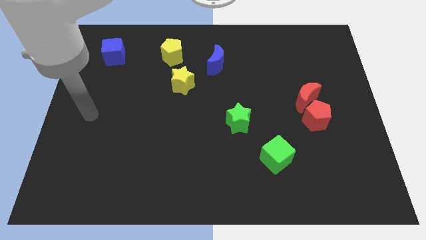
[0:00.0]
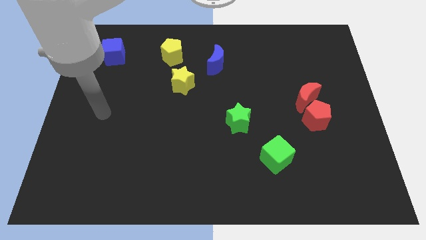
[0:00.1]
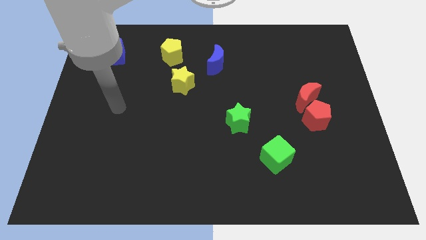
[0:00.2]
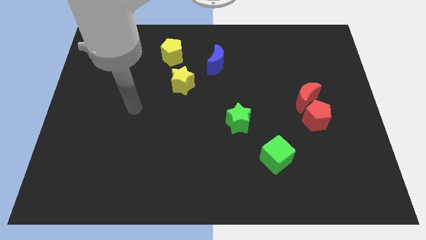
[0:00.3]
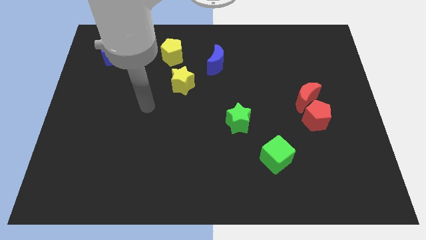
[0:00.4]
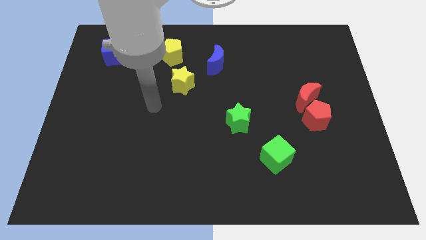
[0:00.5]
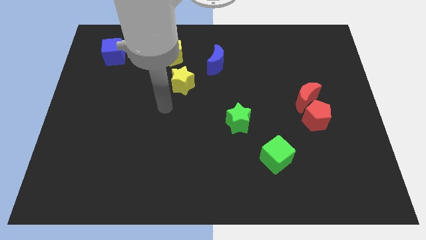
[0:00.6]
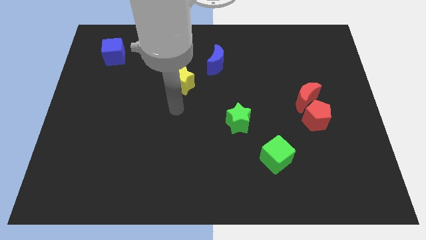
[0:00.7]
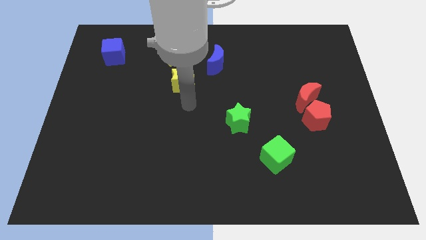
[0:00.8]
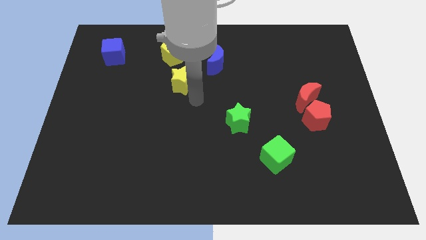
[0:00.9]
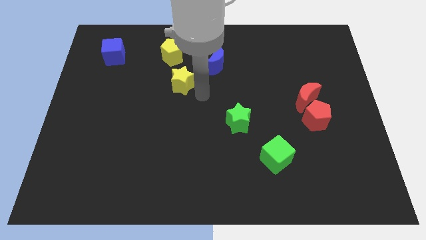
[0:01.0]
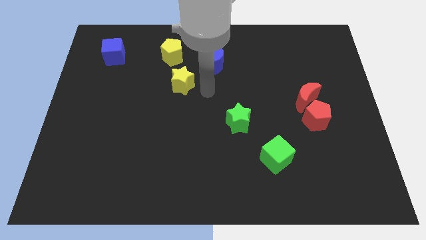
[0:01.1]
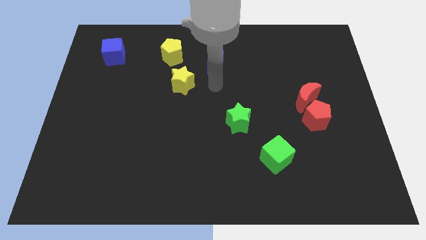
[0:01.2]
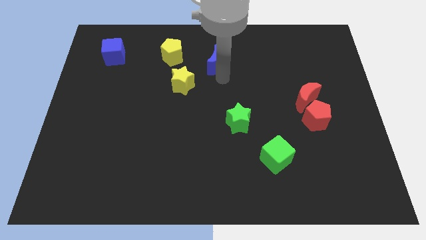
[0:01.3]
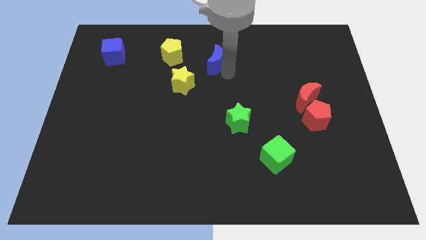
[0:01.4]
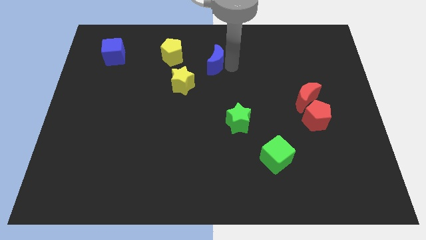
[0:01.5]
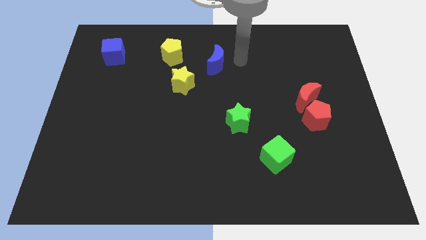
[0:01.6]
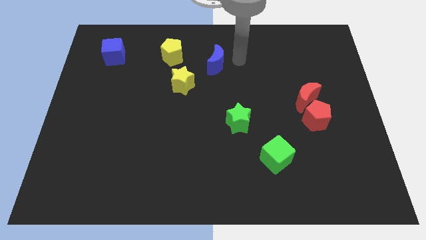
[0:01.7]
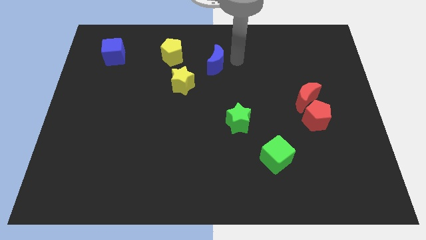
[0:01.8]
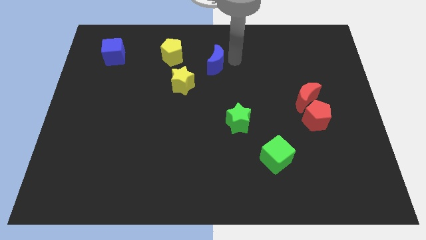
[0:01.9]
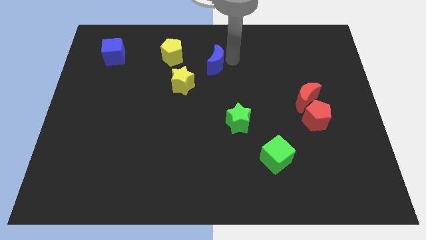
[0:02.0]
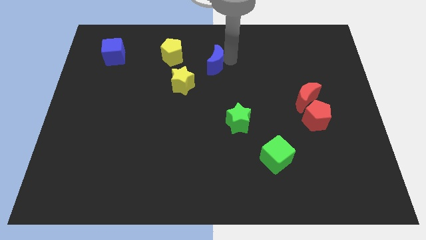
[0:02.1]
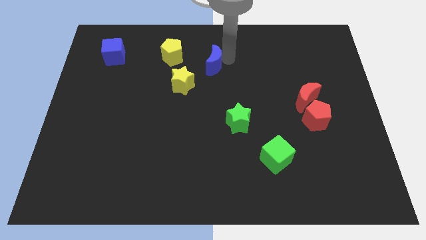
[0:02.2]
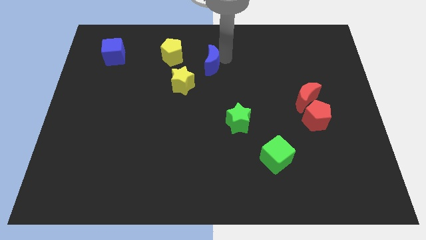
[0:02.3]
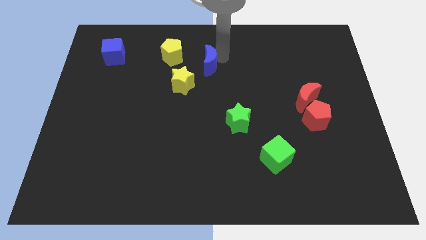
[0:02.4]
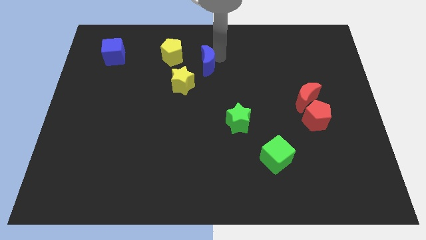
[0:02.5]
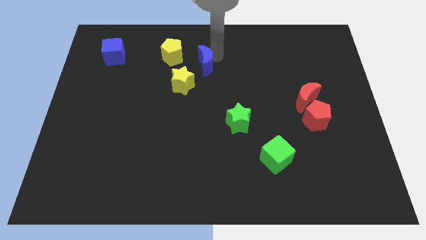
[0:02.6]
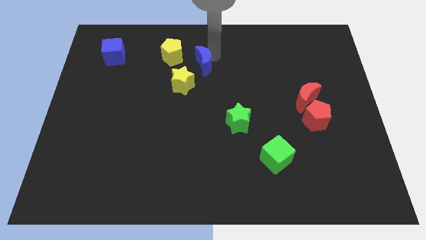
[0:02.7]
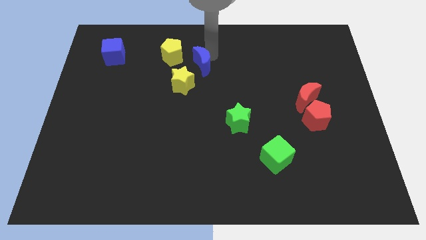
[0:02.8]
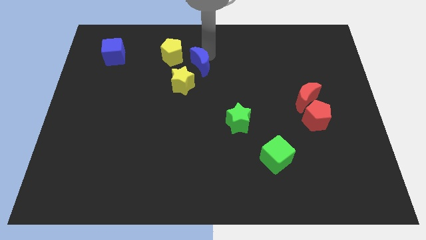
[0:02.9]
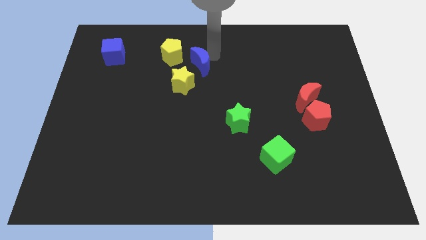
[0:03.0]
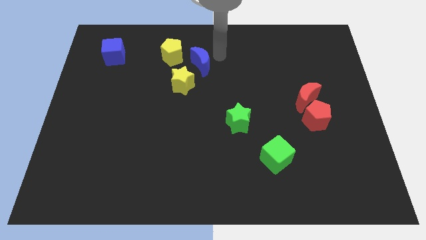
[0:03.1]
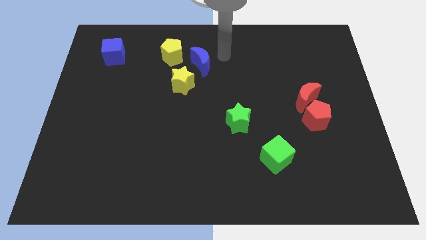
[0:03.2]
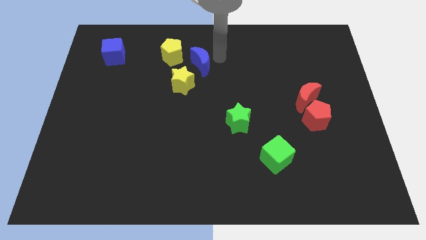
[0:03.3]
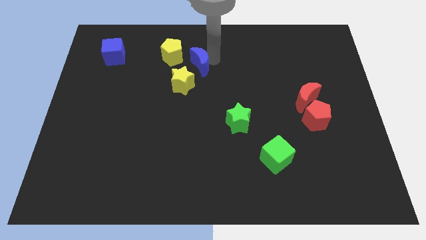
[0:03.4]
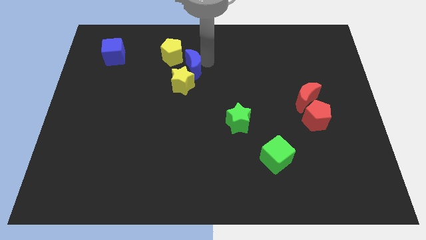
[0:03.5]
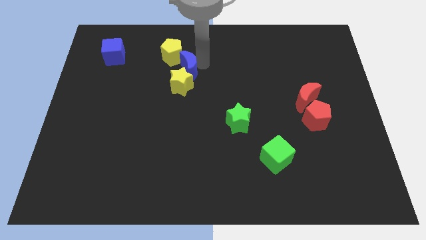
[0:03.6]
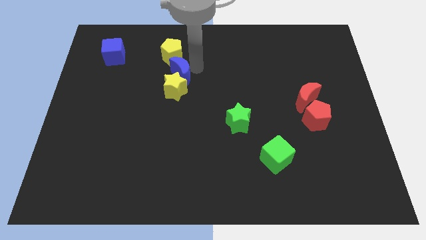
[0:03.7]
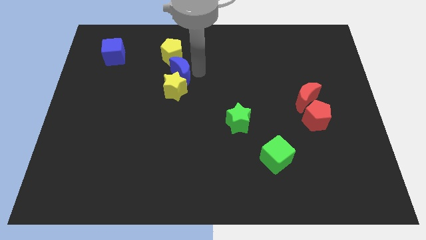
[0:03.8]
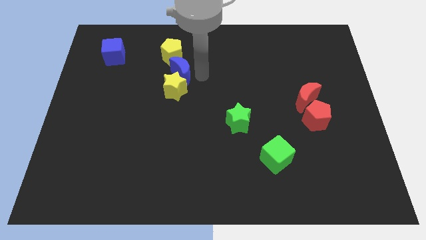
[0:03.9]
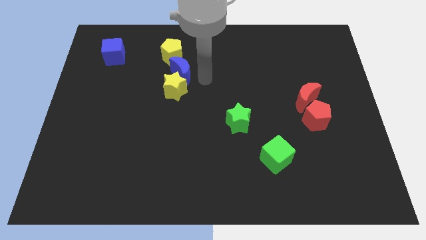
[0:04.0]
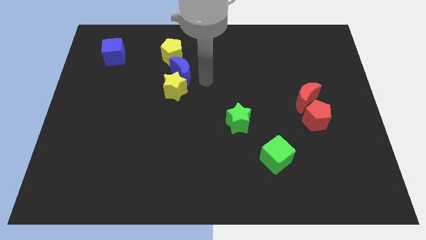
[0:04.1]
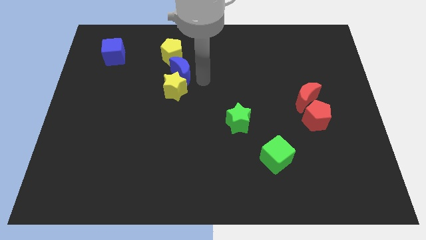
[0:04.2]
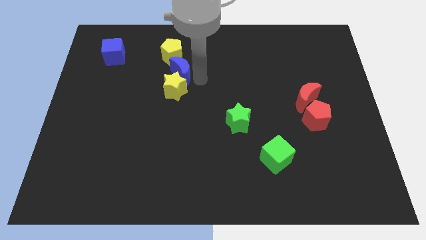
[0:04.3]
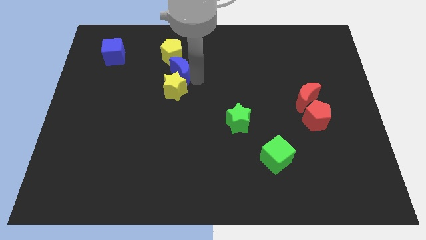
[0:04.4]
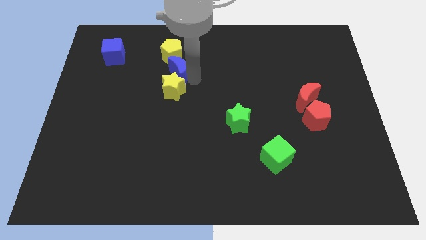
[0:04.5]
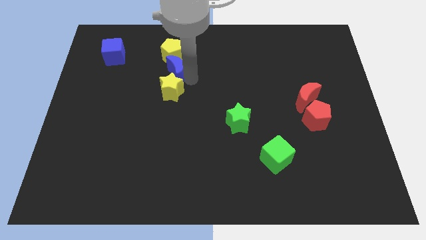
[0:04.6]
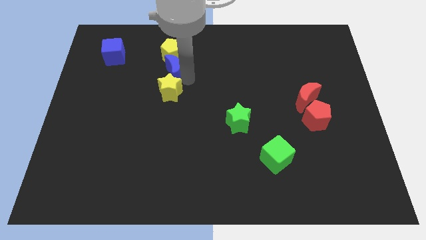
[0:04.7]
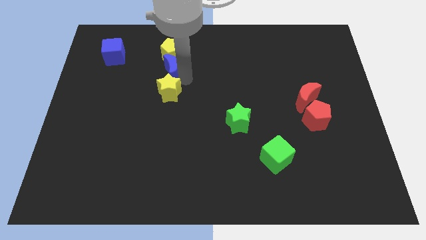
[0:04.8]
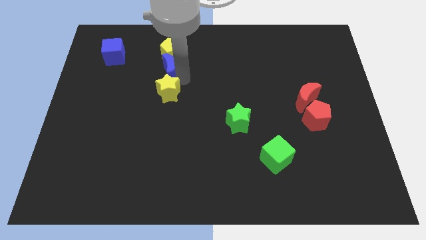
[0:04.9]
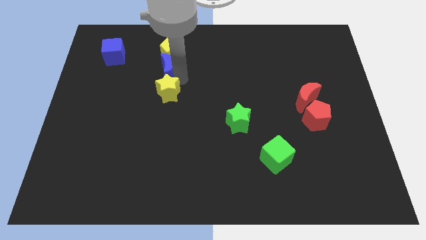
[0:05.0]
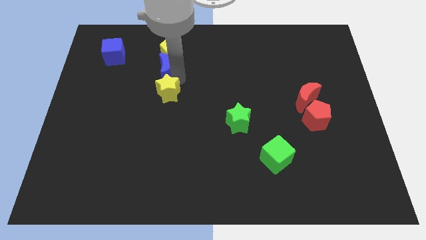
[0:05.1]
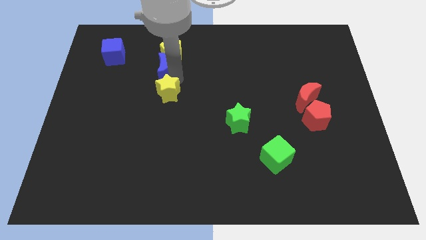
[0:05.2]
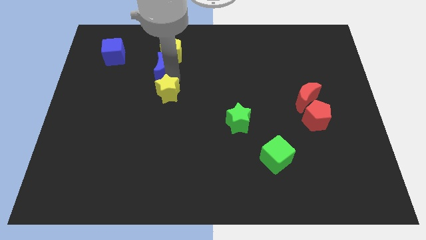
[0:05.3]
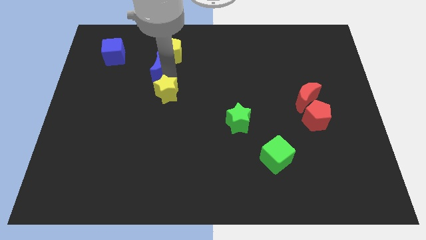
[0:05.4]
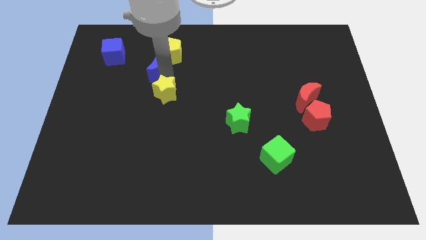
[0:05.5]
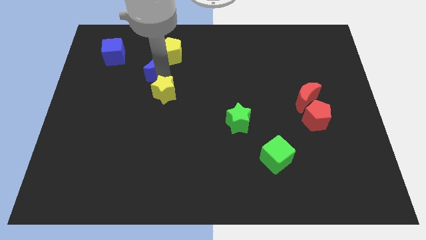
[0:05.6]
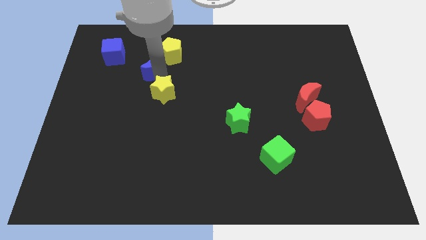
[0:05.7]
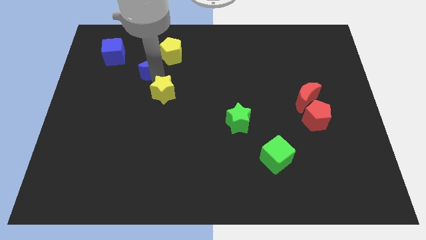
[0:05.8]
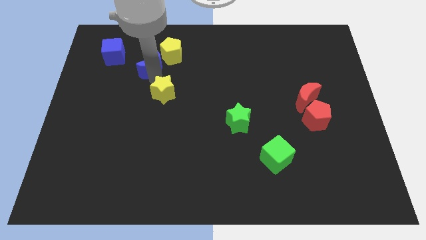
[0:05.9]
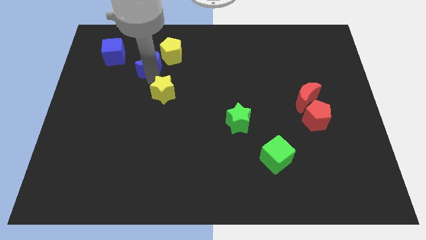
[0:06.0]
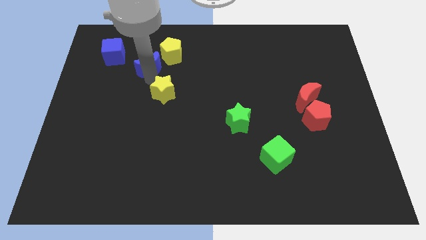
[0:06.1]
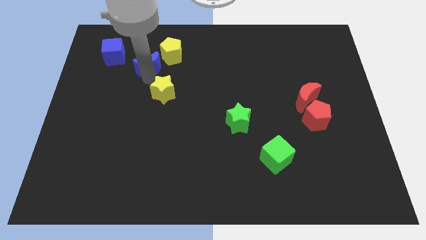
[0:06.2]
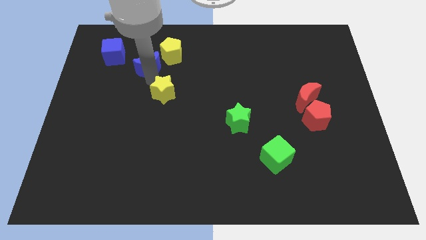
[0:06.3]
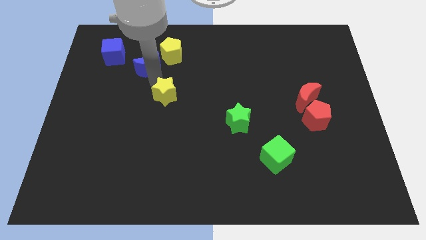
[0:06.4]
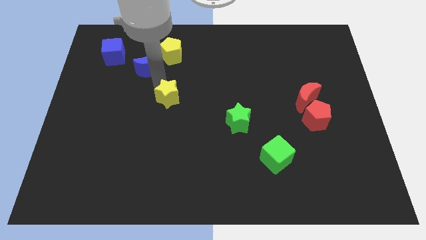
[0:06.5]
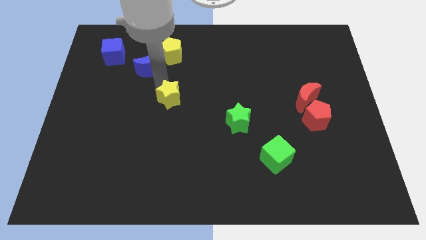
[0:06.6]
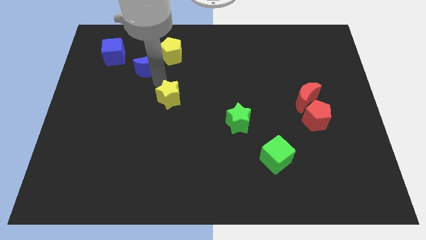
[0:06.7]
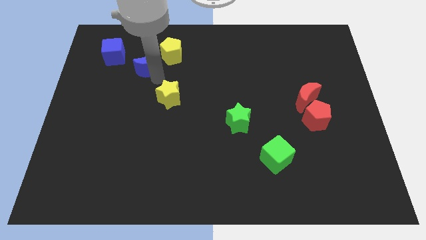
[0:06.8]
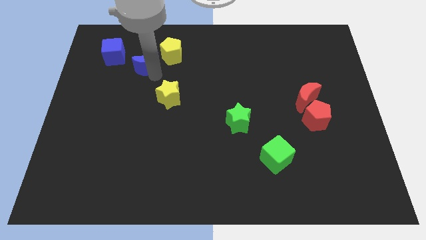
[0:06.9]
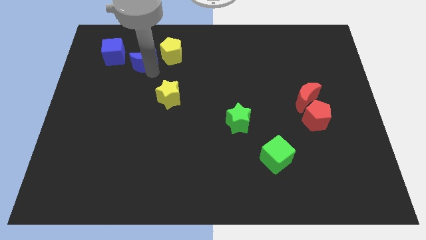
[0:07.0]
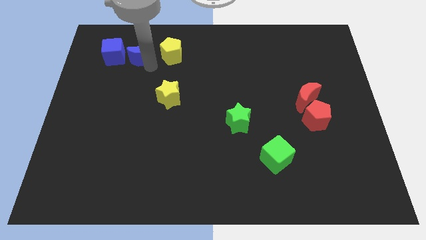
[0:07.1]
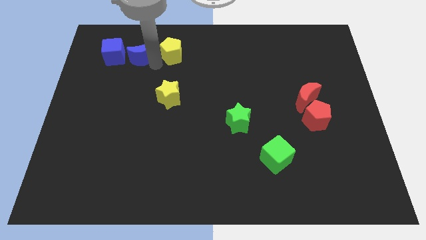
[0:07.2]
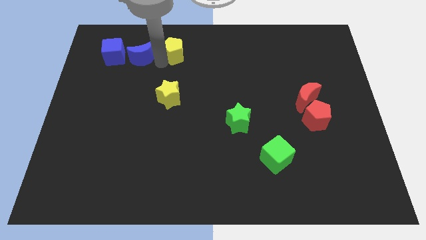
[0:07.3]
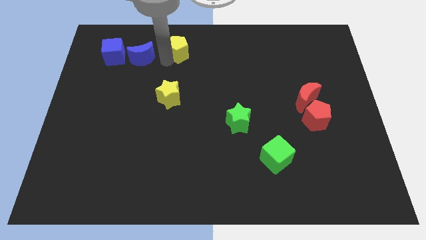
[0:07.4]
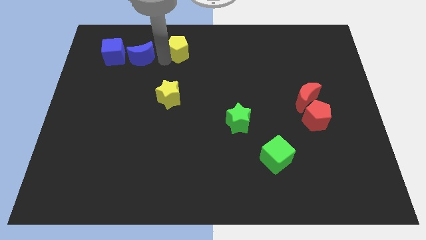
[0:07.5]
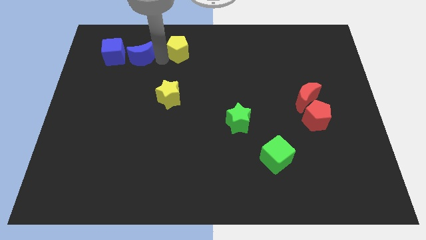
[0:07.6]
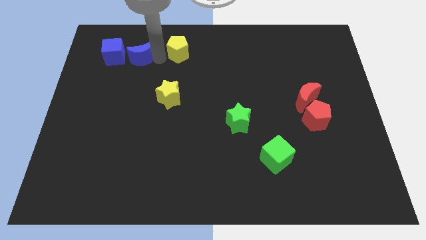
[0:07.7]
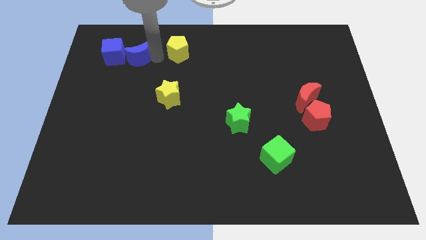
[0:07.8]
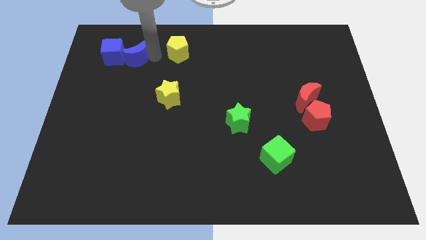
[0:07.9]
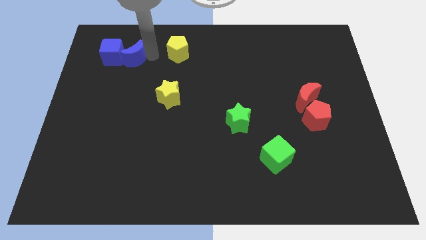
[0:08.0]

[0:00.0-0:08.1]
put the blue moon towards the blue cube
